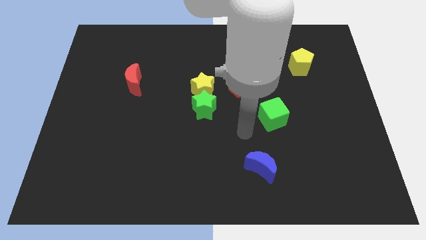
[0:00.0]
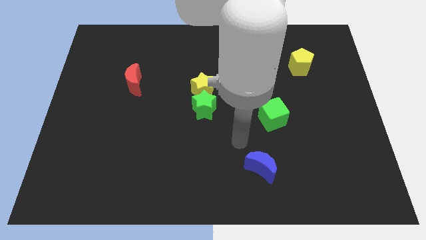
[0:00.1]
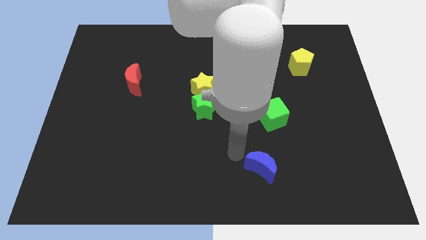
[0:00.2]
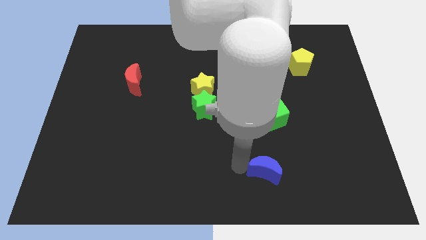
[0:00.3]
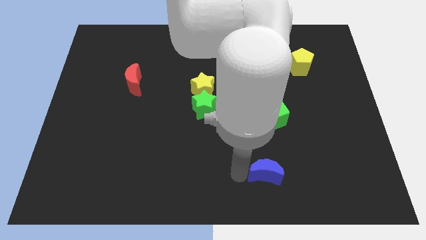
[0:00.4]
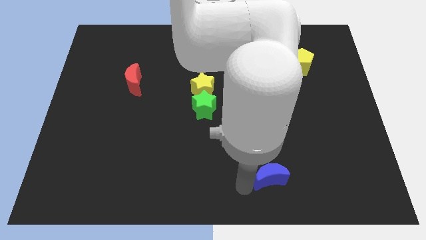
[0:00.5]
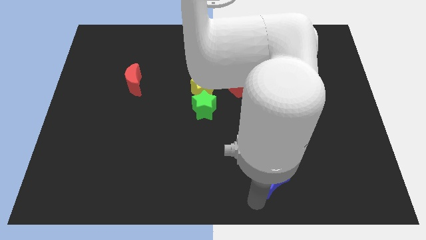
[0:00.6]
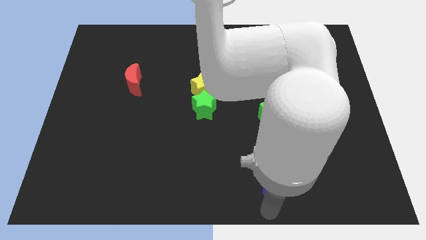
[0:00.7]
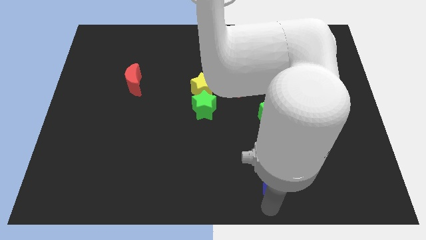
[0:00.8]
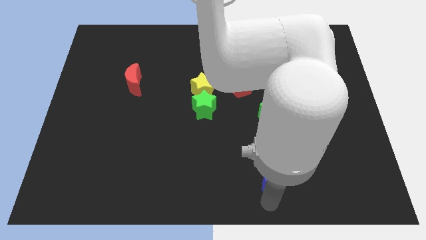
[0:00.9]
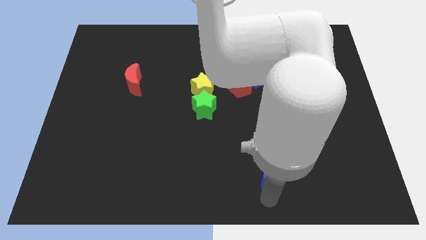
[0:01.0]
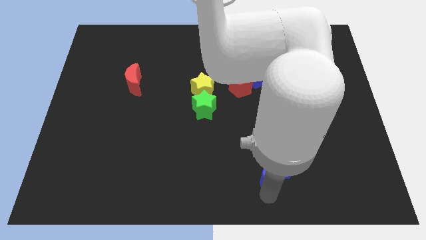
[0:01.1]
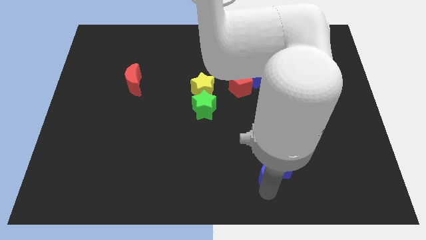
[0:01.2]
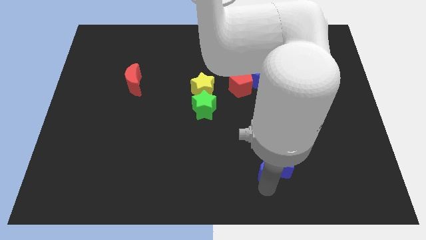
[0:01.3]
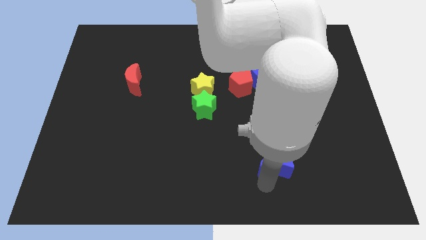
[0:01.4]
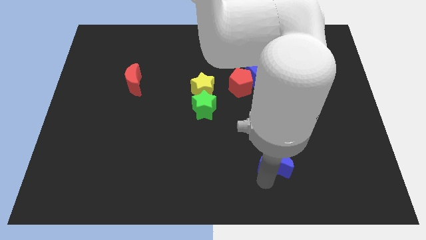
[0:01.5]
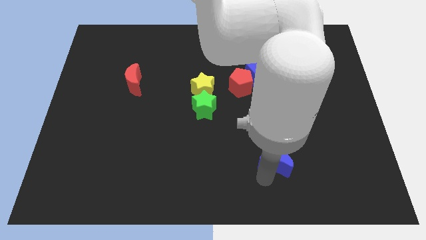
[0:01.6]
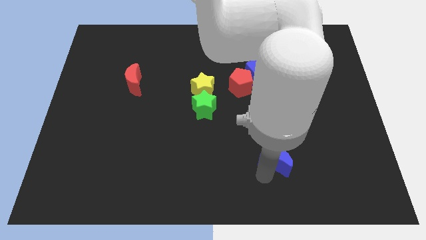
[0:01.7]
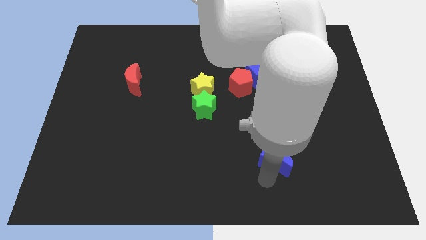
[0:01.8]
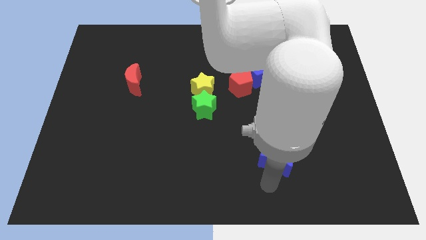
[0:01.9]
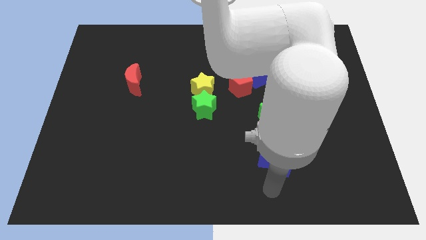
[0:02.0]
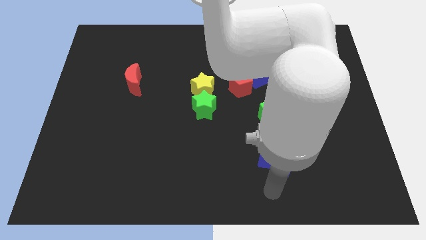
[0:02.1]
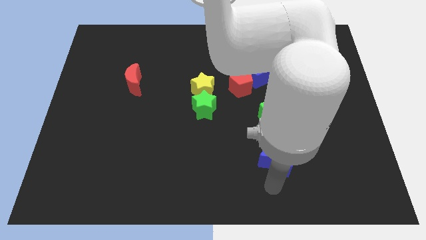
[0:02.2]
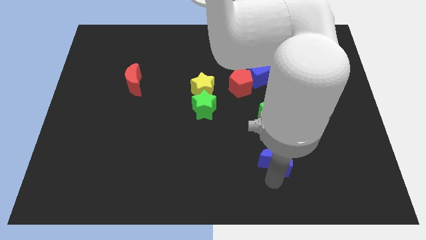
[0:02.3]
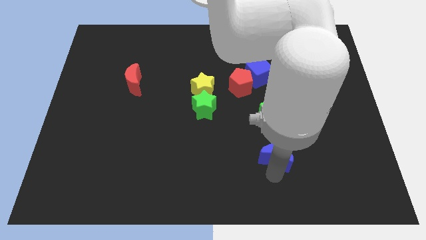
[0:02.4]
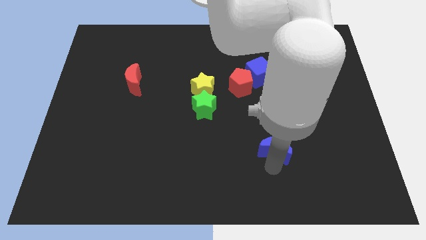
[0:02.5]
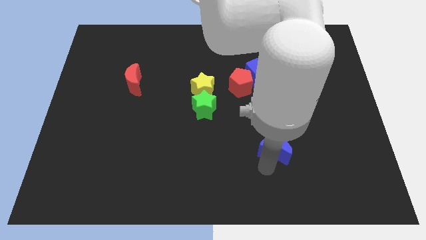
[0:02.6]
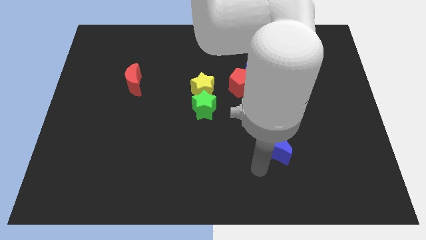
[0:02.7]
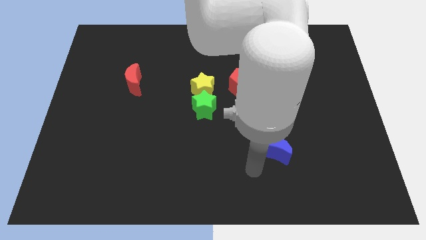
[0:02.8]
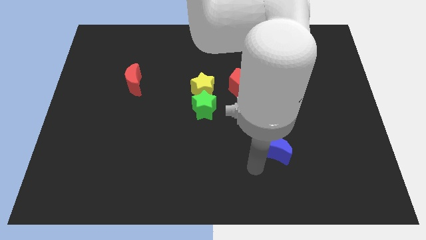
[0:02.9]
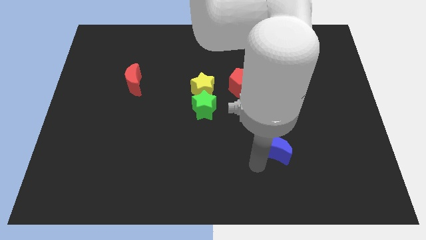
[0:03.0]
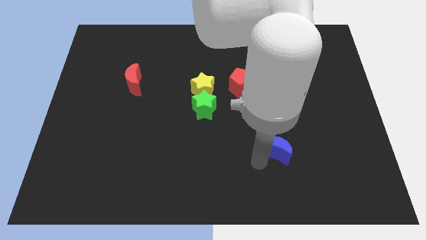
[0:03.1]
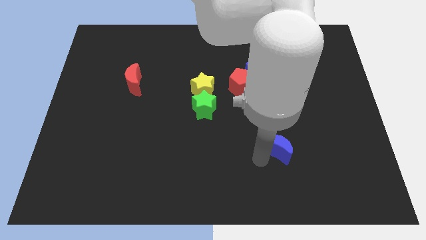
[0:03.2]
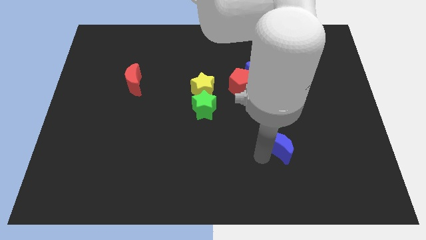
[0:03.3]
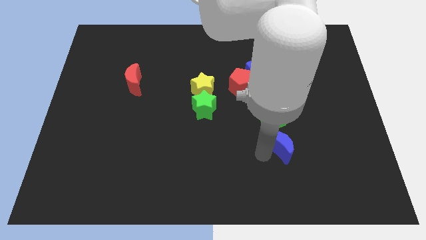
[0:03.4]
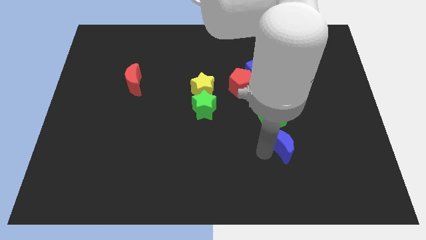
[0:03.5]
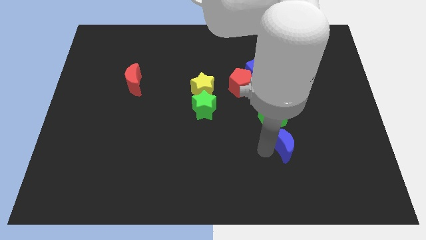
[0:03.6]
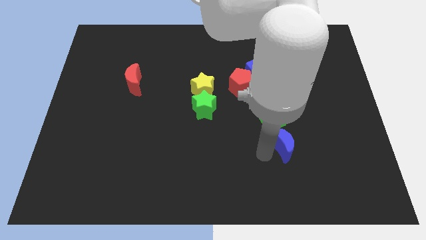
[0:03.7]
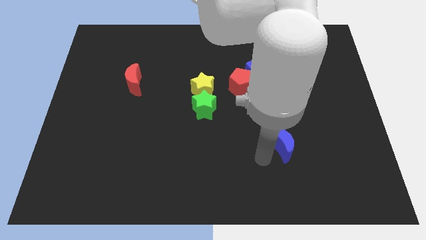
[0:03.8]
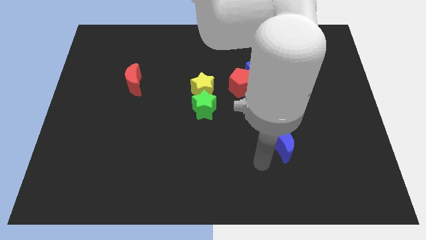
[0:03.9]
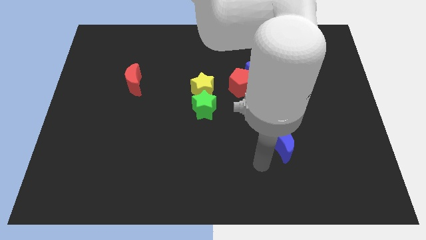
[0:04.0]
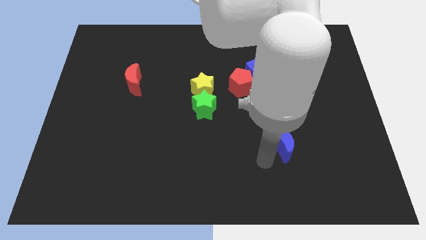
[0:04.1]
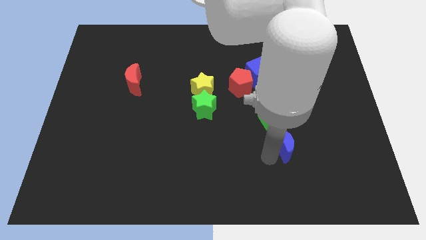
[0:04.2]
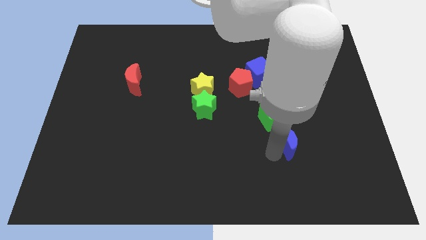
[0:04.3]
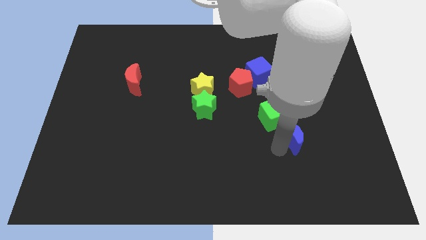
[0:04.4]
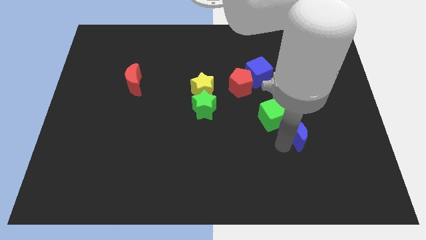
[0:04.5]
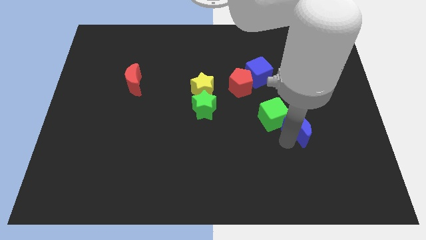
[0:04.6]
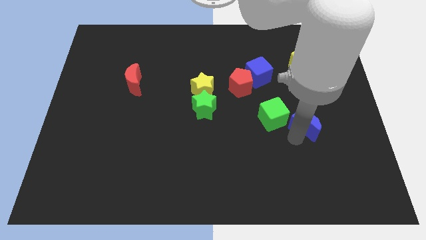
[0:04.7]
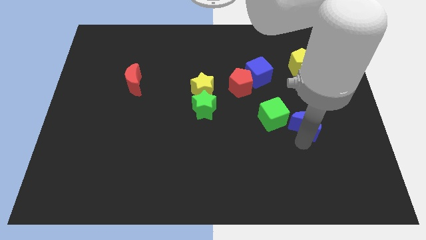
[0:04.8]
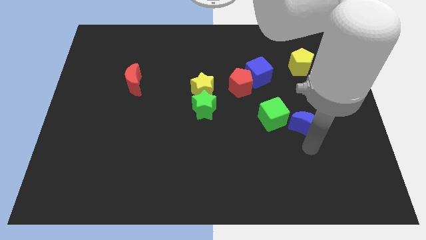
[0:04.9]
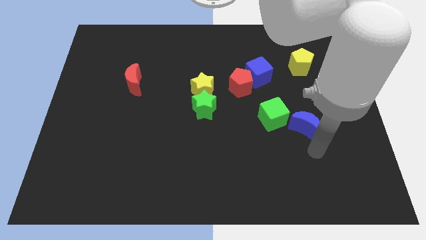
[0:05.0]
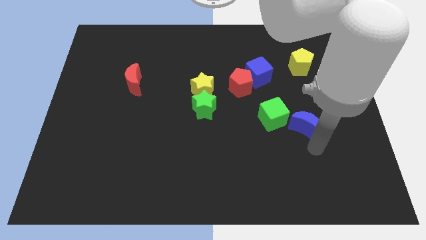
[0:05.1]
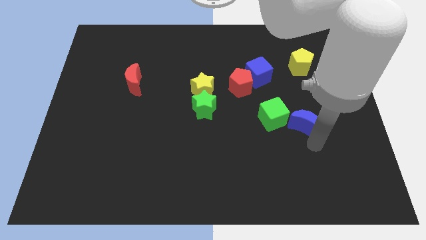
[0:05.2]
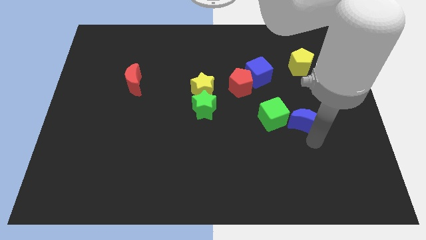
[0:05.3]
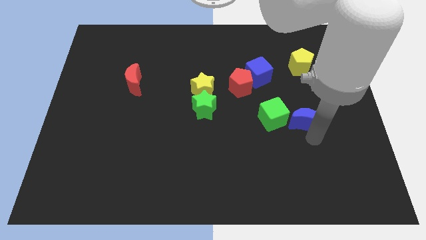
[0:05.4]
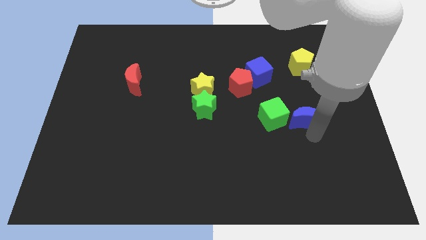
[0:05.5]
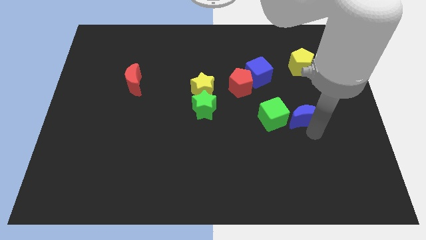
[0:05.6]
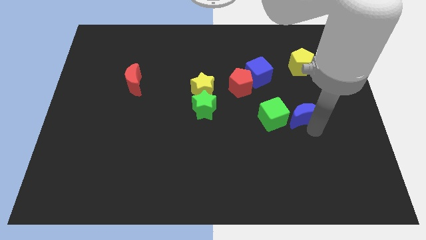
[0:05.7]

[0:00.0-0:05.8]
slide the blue moon to the top right of the green cube
